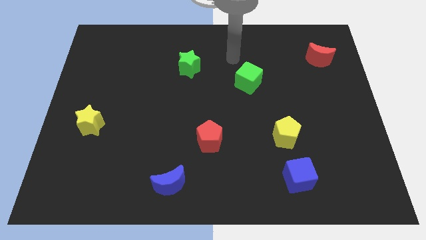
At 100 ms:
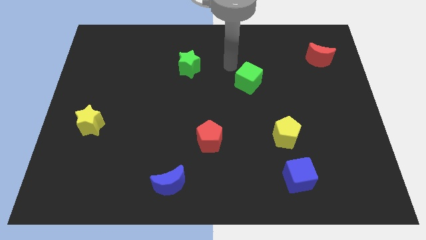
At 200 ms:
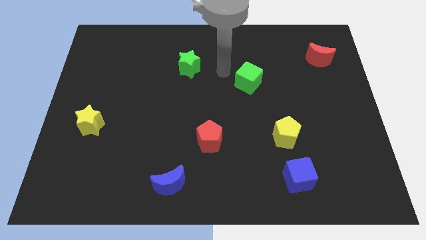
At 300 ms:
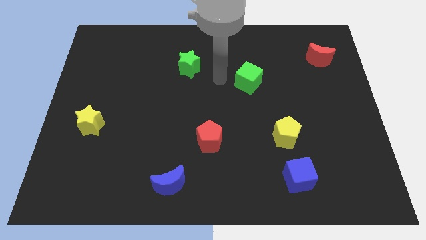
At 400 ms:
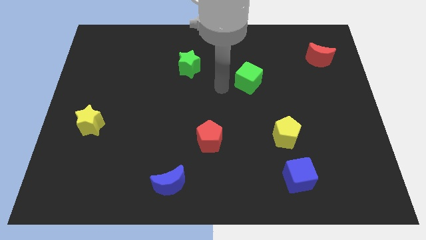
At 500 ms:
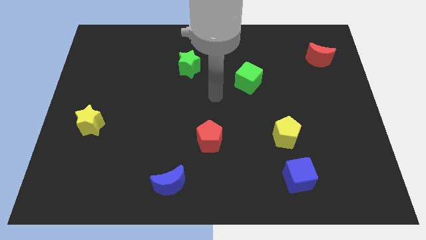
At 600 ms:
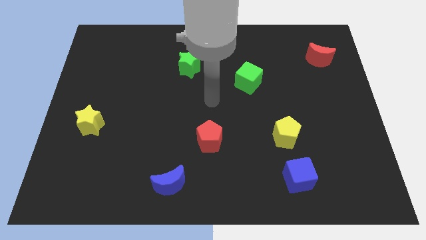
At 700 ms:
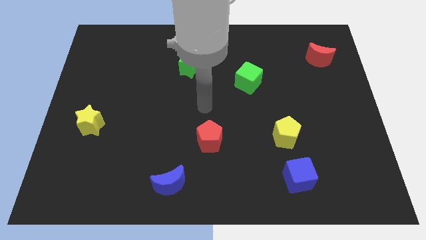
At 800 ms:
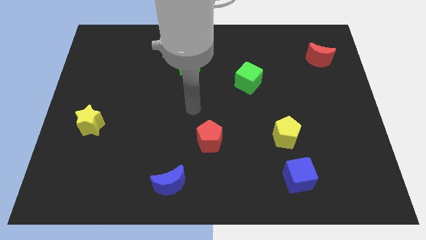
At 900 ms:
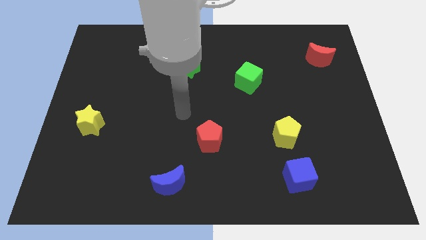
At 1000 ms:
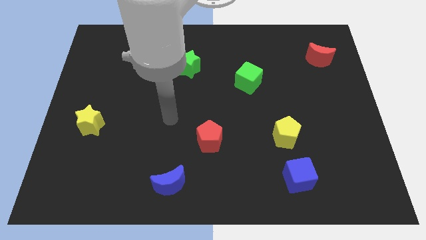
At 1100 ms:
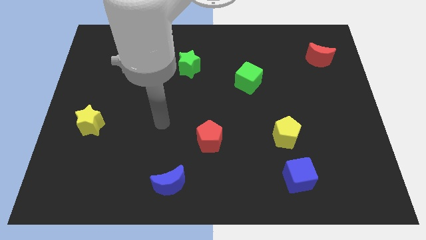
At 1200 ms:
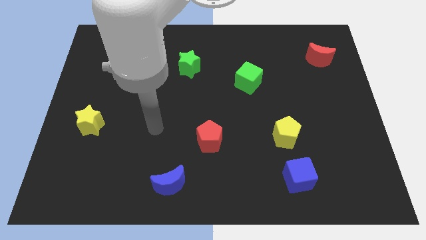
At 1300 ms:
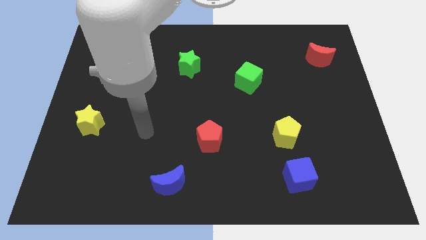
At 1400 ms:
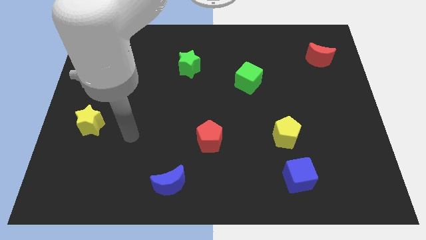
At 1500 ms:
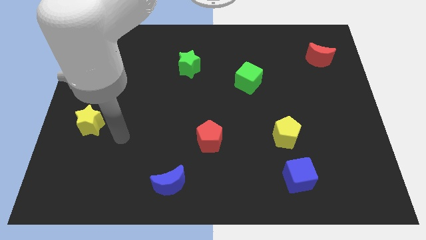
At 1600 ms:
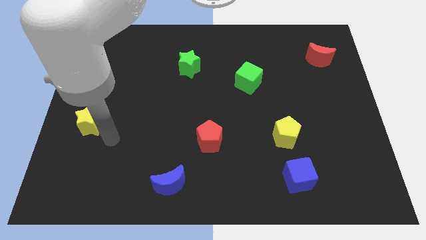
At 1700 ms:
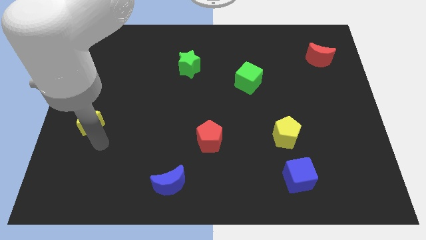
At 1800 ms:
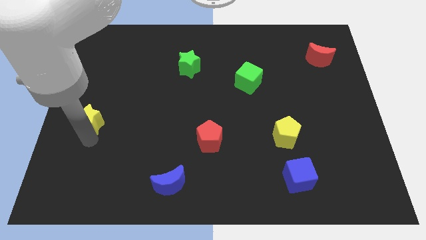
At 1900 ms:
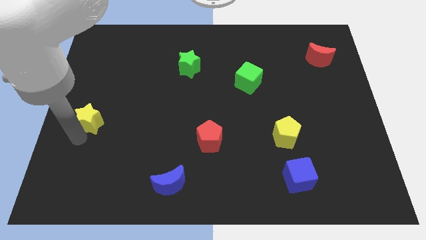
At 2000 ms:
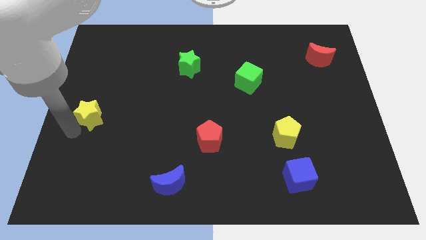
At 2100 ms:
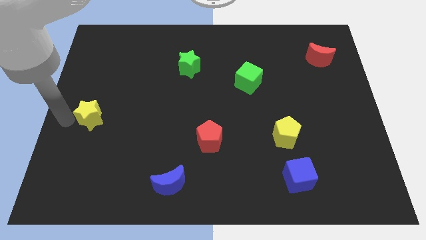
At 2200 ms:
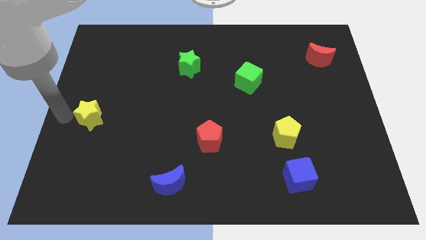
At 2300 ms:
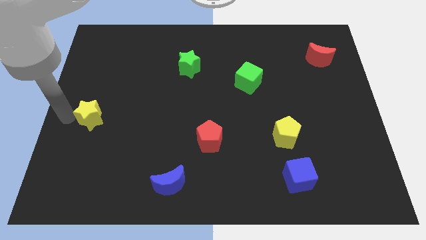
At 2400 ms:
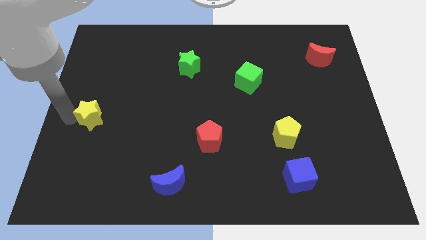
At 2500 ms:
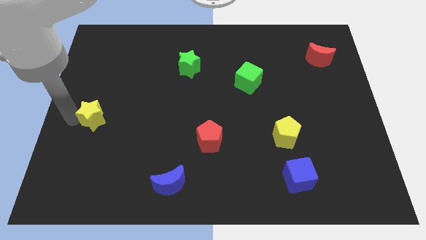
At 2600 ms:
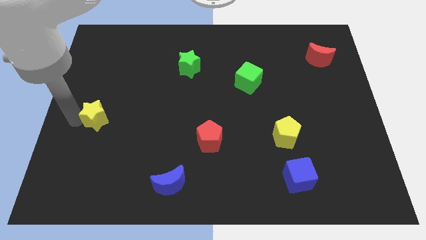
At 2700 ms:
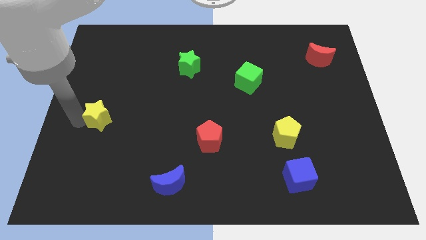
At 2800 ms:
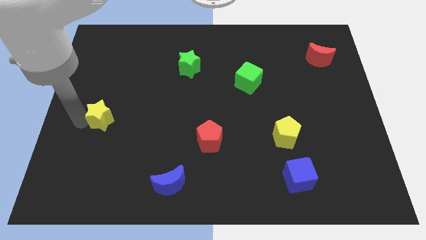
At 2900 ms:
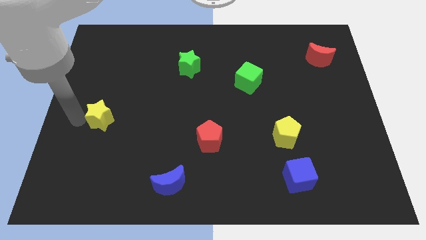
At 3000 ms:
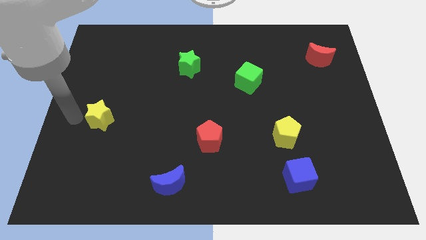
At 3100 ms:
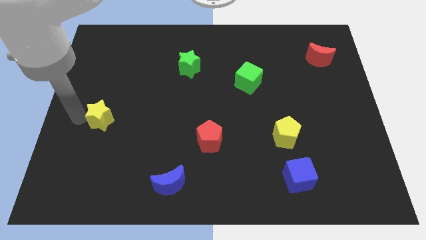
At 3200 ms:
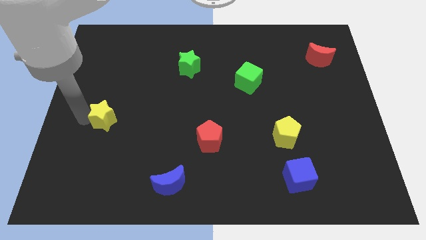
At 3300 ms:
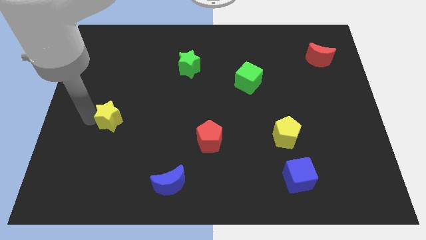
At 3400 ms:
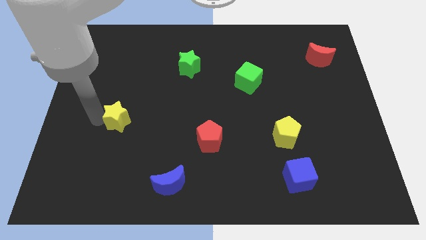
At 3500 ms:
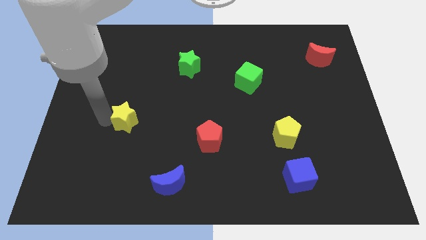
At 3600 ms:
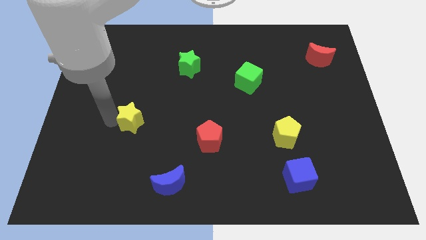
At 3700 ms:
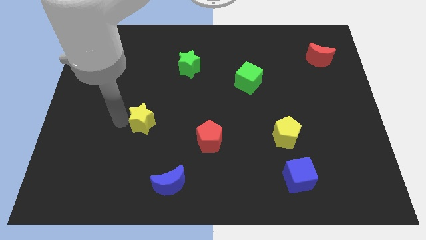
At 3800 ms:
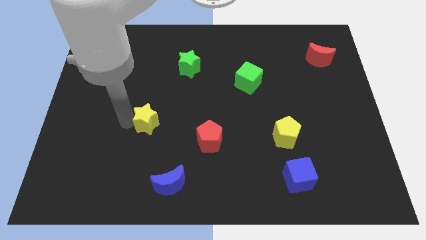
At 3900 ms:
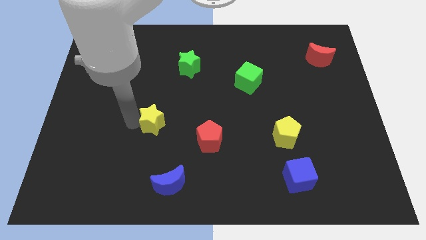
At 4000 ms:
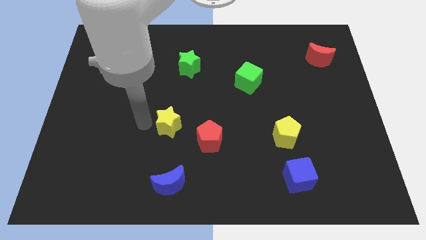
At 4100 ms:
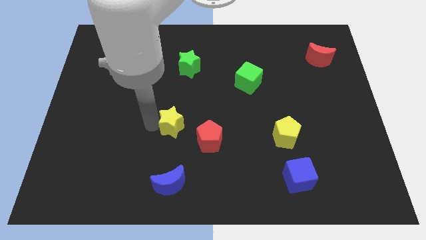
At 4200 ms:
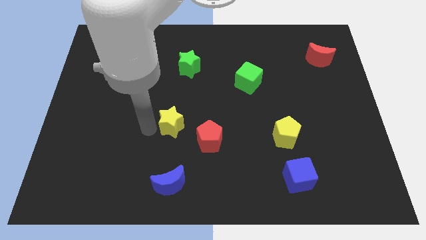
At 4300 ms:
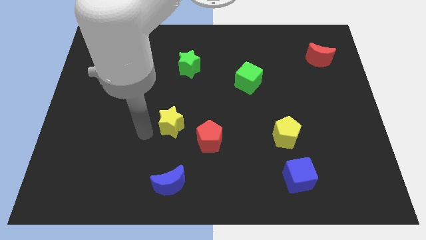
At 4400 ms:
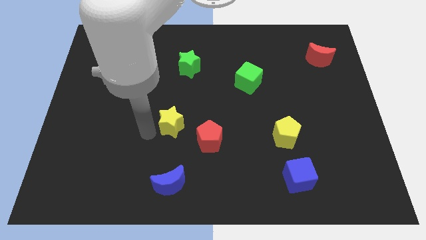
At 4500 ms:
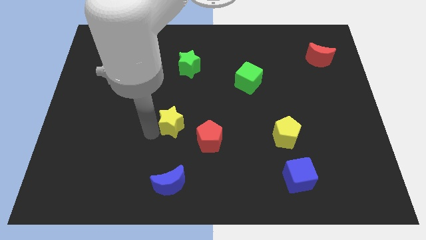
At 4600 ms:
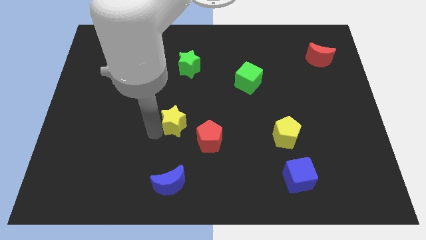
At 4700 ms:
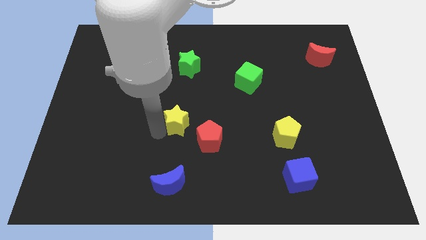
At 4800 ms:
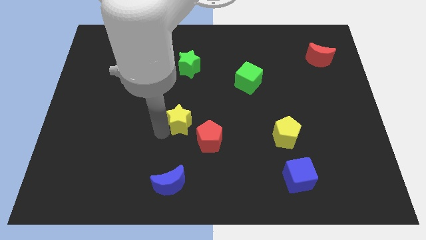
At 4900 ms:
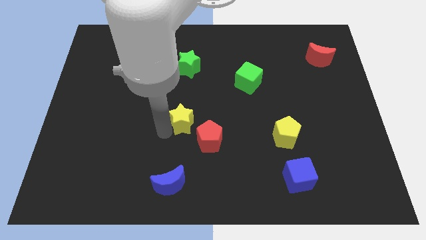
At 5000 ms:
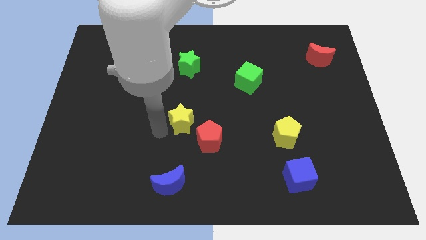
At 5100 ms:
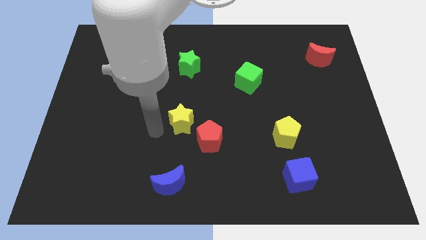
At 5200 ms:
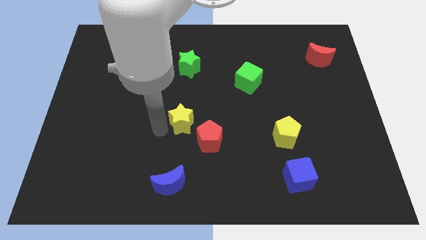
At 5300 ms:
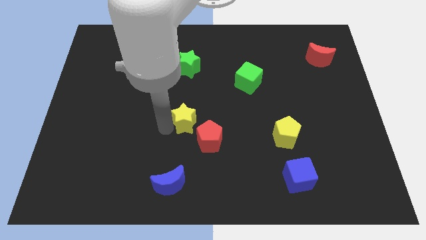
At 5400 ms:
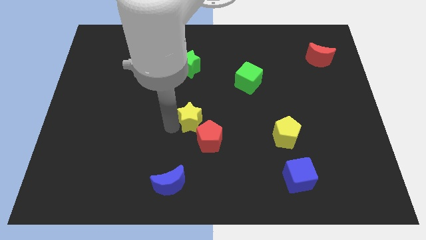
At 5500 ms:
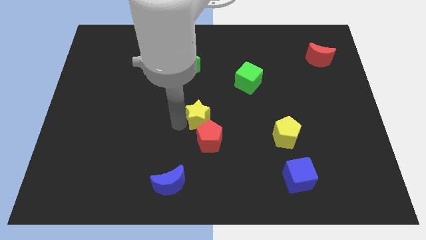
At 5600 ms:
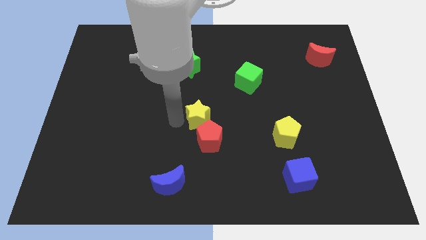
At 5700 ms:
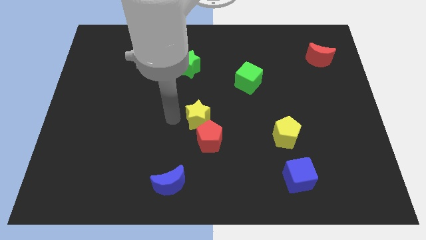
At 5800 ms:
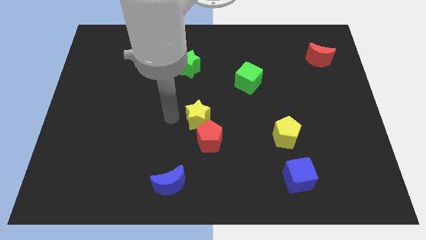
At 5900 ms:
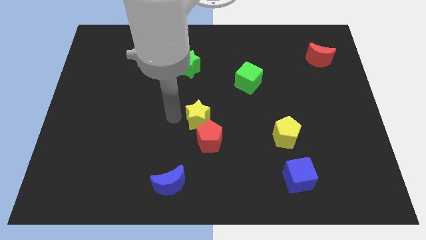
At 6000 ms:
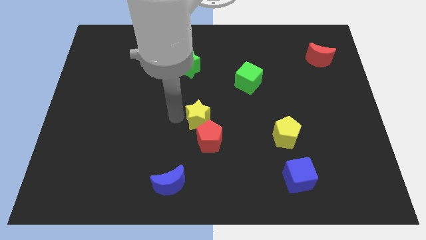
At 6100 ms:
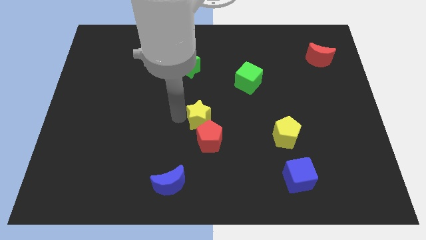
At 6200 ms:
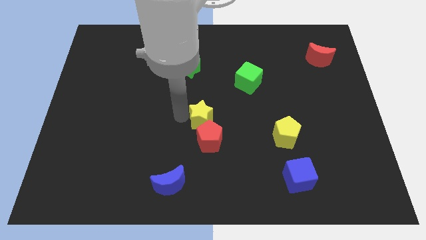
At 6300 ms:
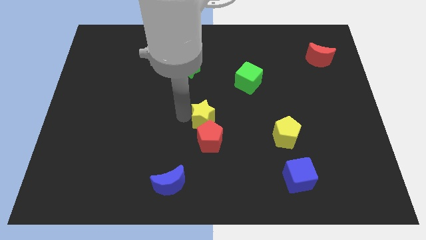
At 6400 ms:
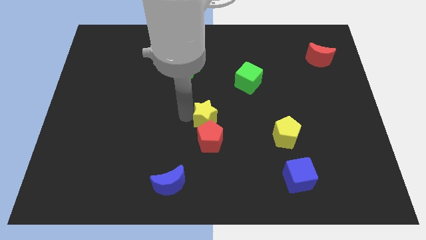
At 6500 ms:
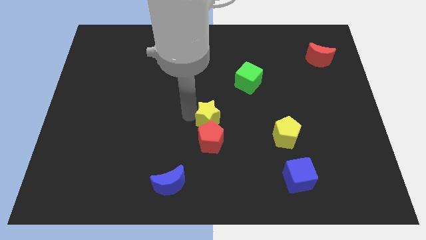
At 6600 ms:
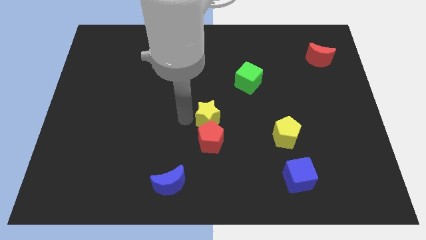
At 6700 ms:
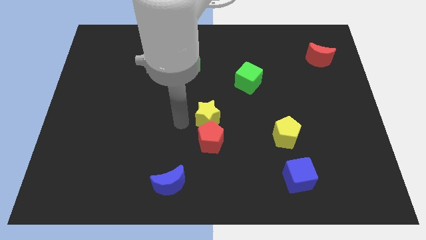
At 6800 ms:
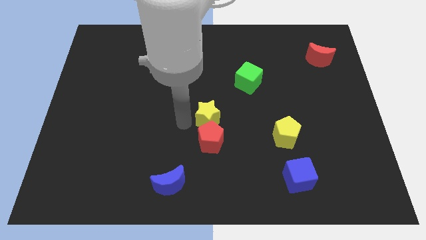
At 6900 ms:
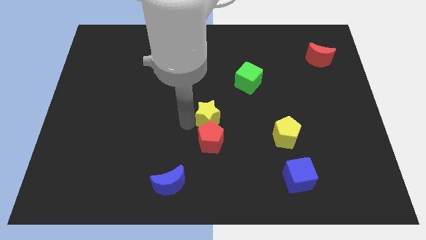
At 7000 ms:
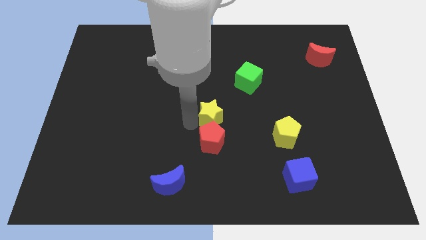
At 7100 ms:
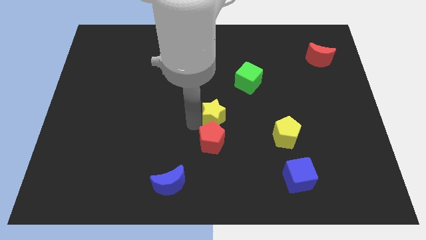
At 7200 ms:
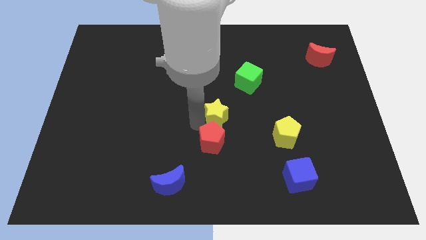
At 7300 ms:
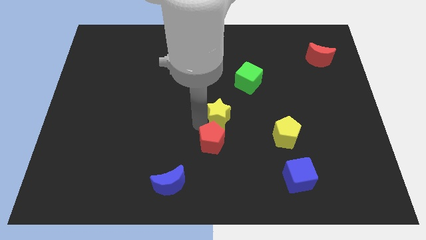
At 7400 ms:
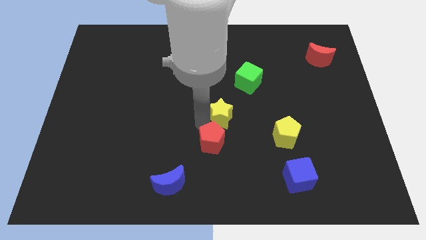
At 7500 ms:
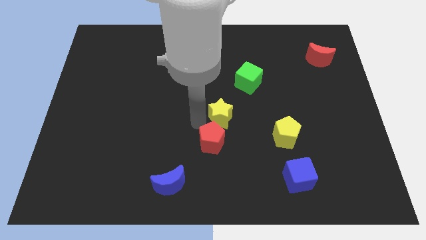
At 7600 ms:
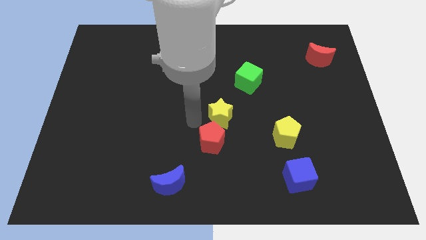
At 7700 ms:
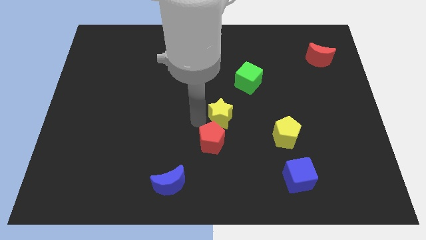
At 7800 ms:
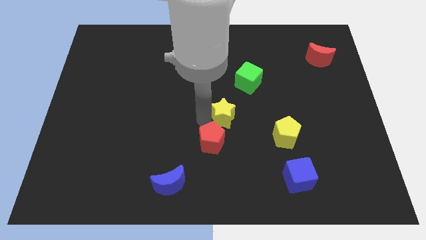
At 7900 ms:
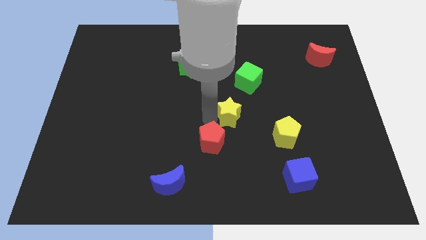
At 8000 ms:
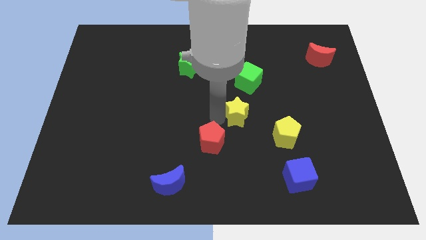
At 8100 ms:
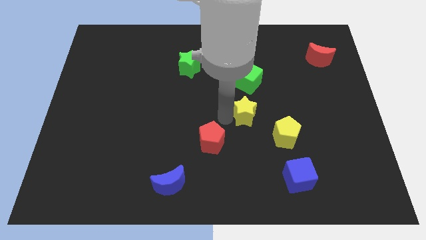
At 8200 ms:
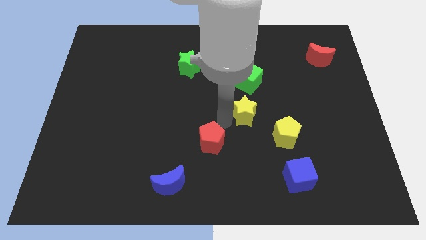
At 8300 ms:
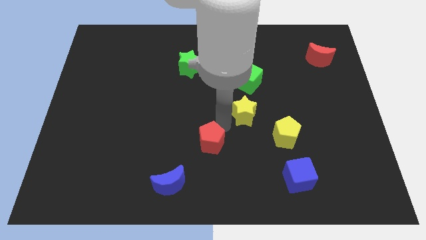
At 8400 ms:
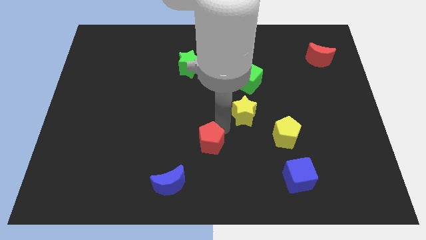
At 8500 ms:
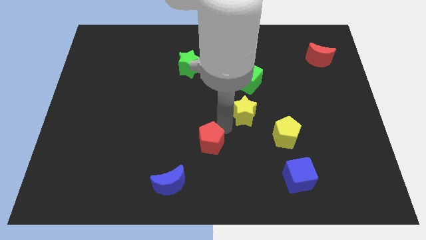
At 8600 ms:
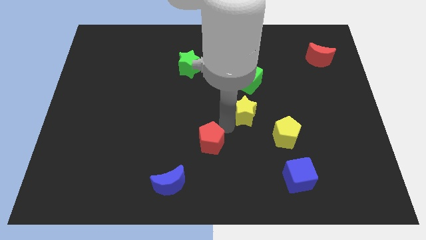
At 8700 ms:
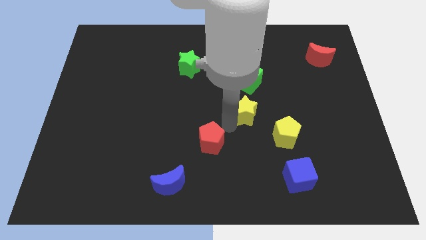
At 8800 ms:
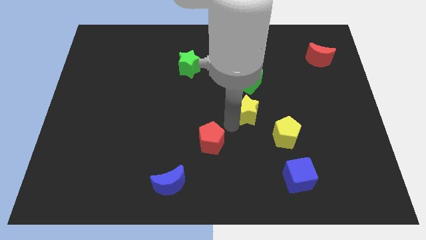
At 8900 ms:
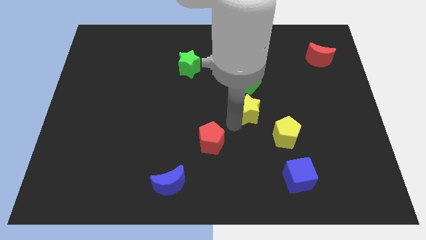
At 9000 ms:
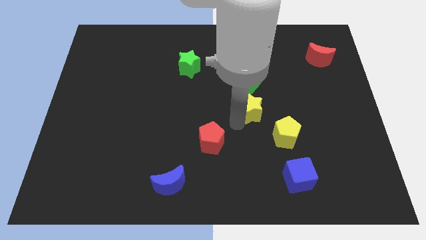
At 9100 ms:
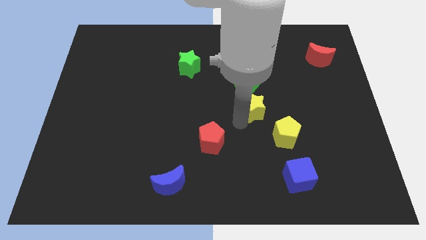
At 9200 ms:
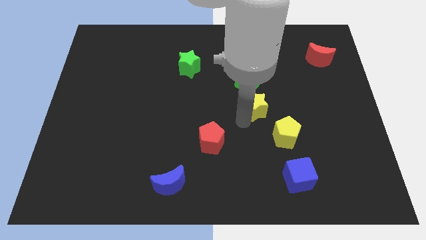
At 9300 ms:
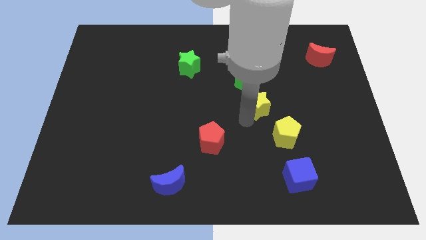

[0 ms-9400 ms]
push the yellow star diagonally down and to the right of the green cube
